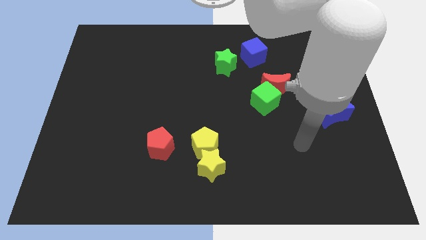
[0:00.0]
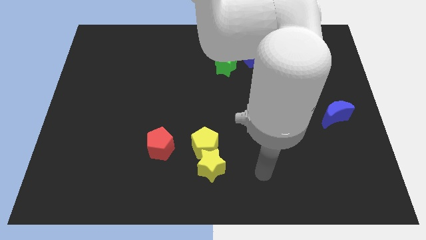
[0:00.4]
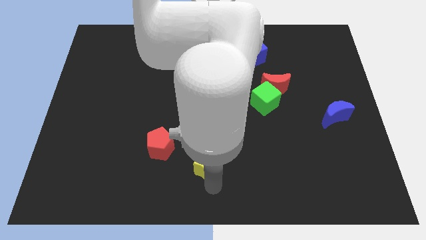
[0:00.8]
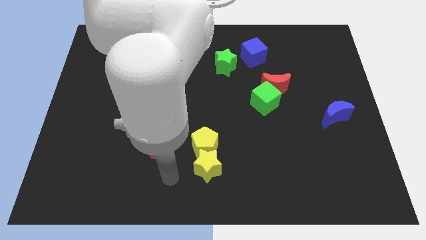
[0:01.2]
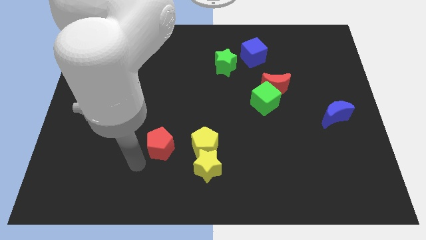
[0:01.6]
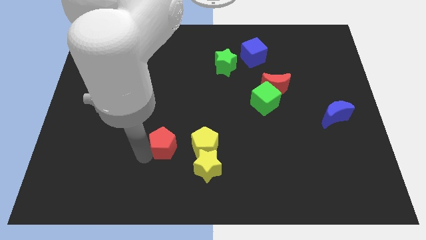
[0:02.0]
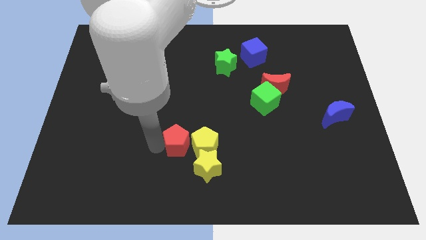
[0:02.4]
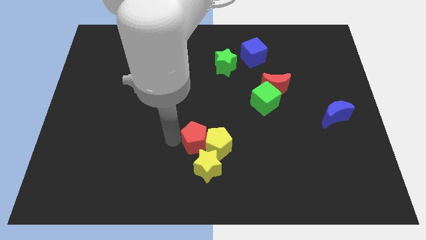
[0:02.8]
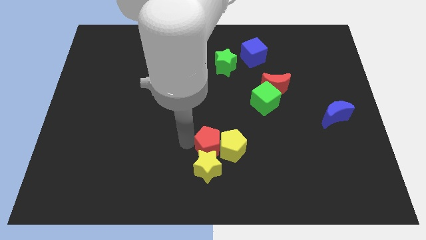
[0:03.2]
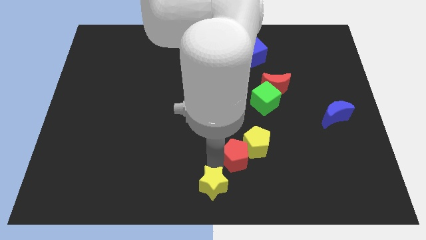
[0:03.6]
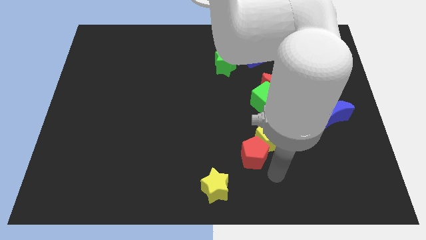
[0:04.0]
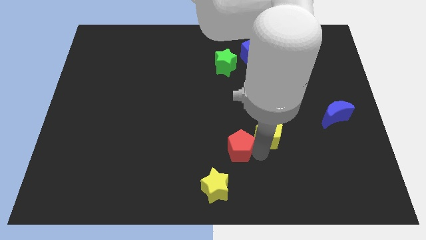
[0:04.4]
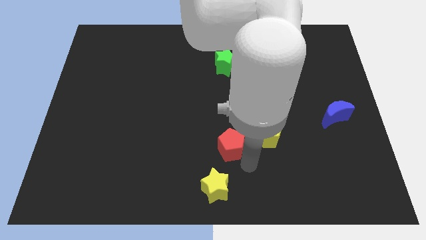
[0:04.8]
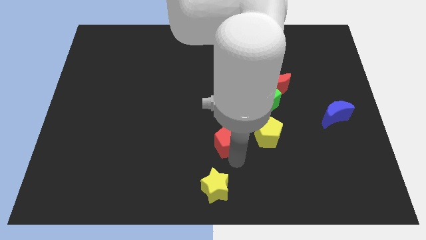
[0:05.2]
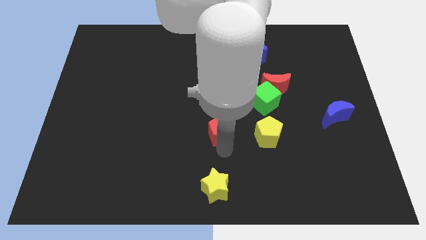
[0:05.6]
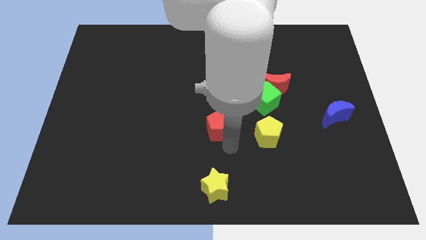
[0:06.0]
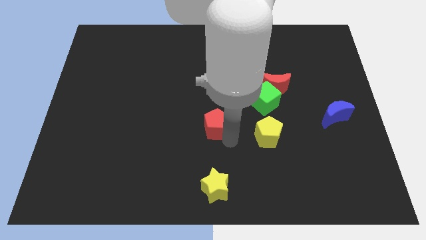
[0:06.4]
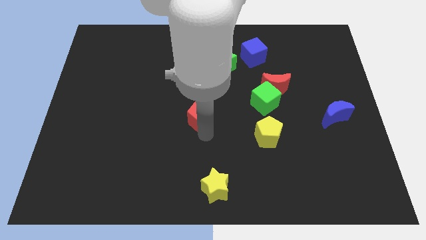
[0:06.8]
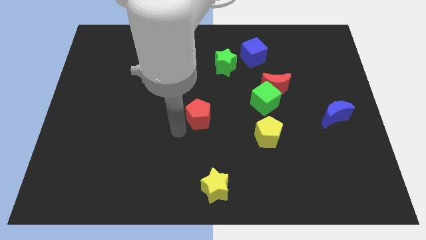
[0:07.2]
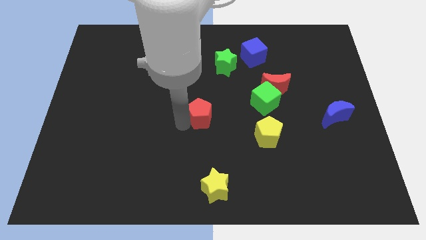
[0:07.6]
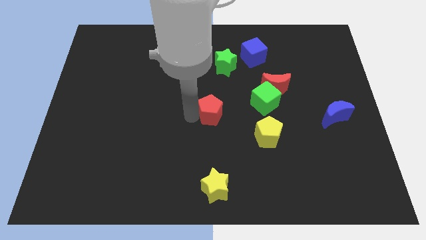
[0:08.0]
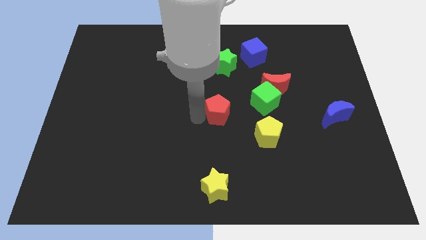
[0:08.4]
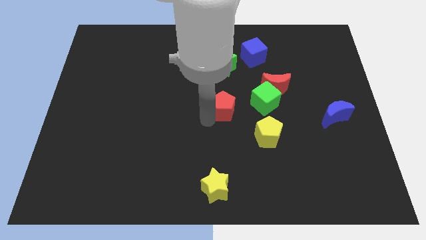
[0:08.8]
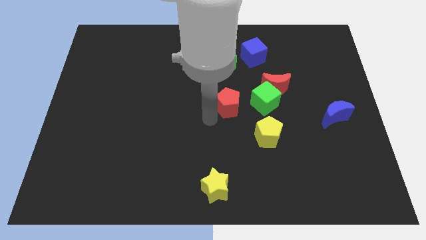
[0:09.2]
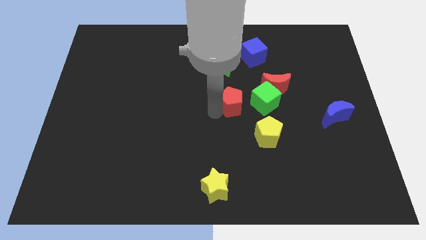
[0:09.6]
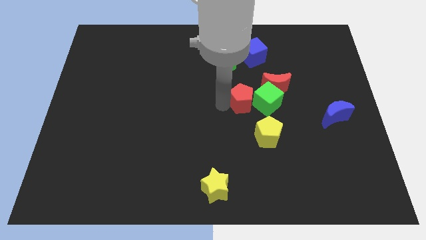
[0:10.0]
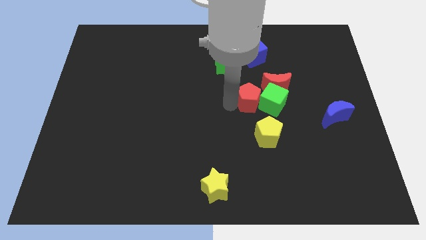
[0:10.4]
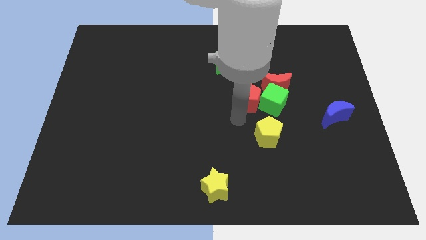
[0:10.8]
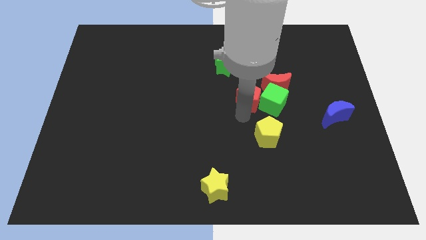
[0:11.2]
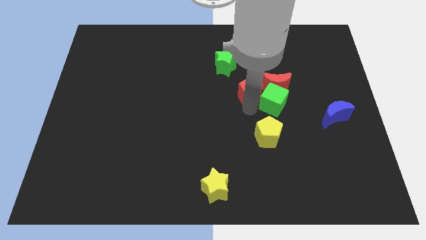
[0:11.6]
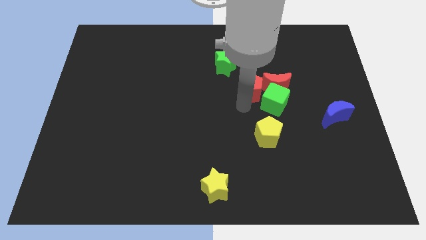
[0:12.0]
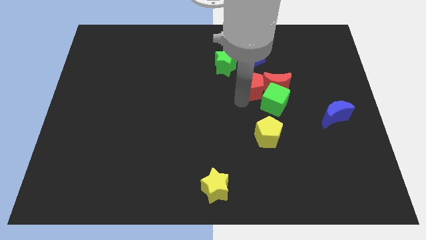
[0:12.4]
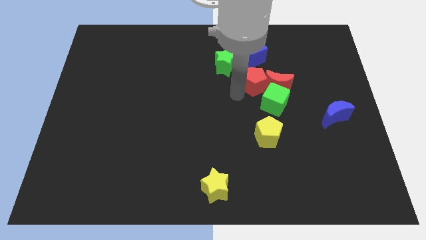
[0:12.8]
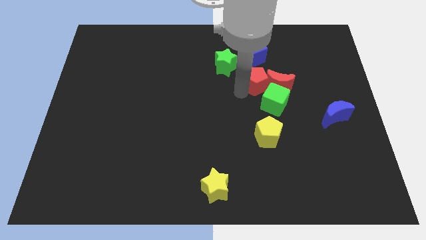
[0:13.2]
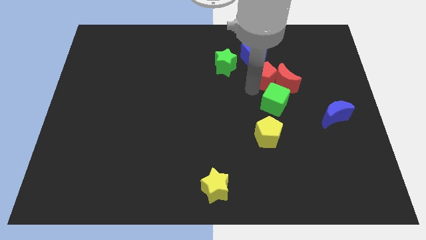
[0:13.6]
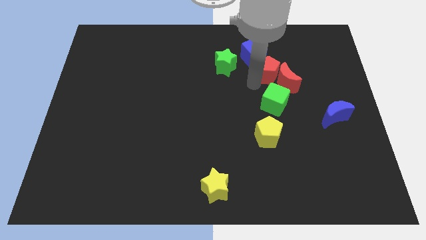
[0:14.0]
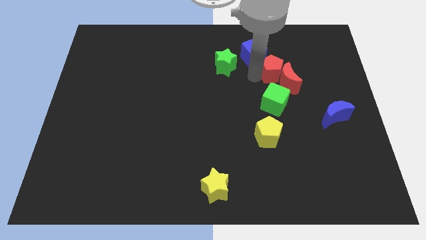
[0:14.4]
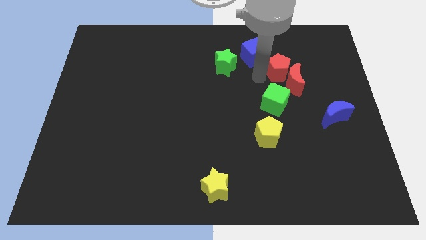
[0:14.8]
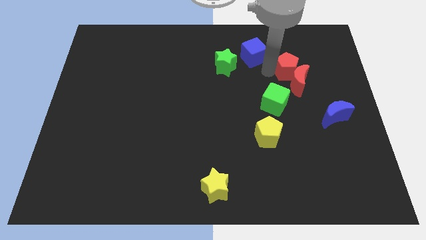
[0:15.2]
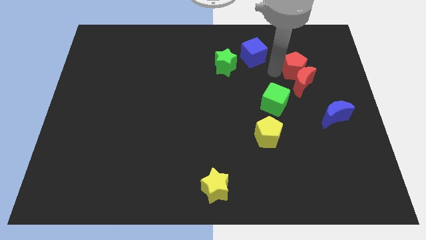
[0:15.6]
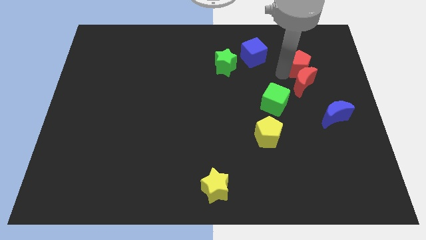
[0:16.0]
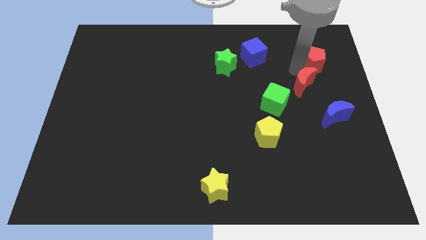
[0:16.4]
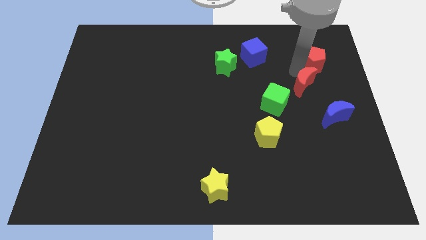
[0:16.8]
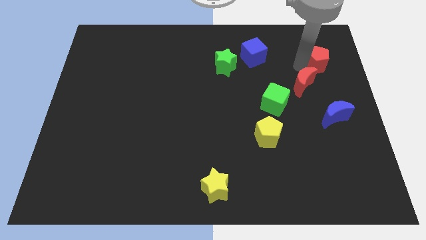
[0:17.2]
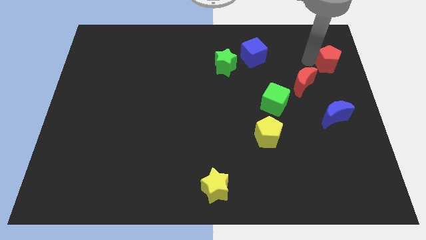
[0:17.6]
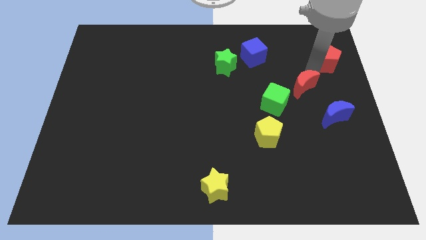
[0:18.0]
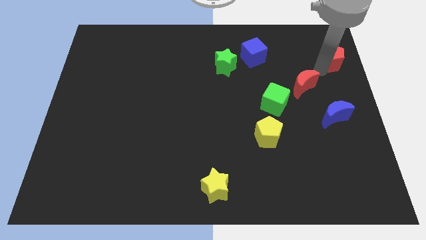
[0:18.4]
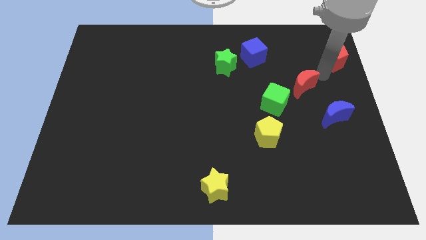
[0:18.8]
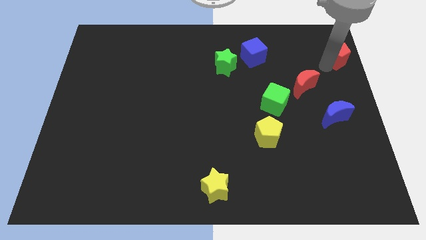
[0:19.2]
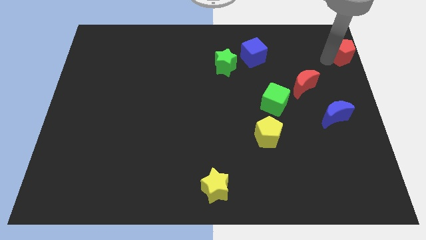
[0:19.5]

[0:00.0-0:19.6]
push the red pentagon to the upper right corner

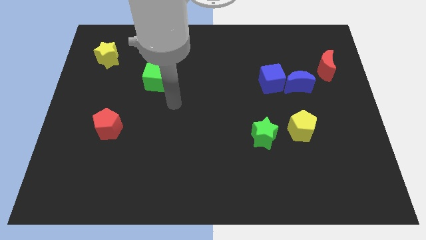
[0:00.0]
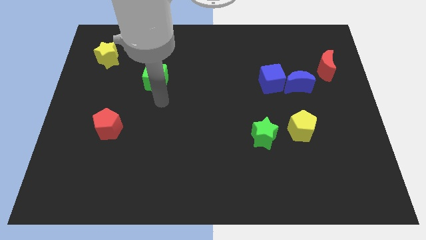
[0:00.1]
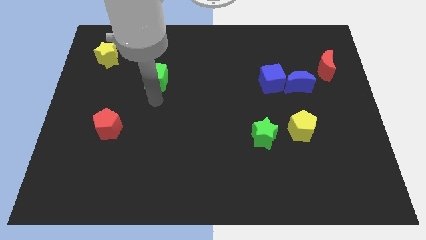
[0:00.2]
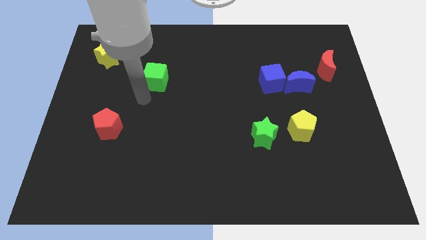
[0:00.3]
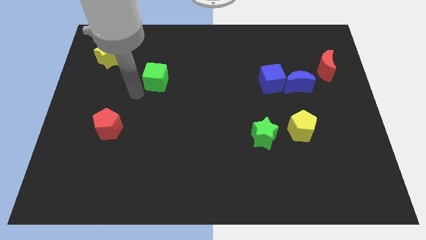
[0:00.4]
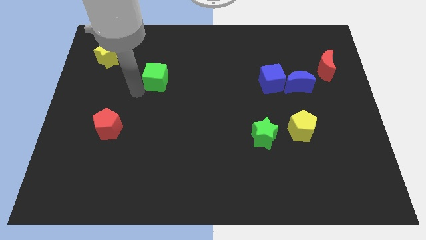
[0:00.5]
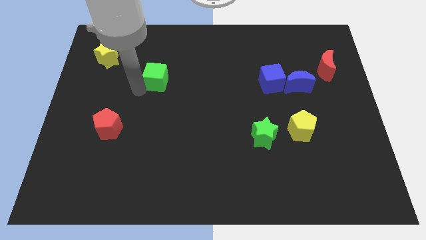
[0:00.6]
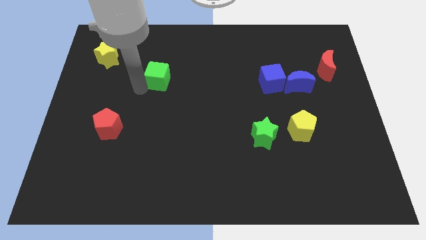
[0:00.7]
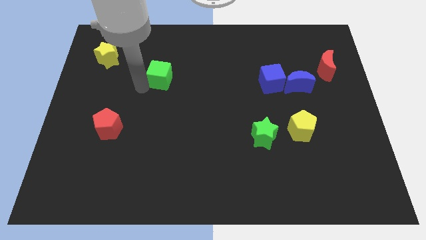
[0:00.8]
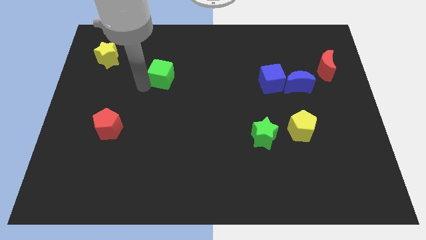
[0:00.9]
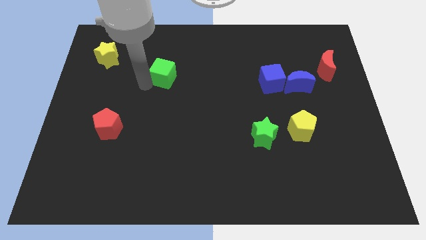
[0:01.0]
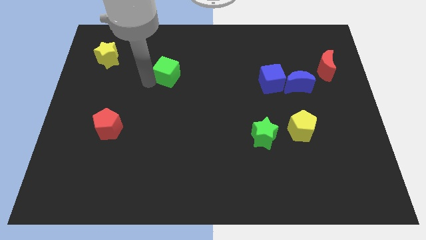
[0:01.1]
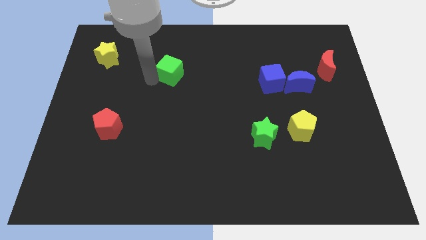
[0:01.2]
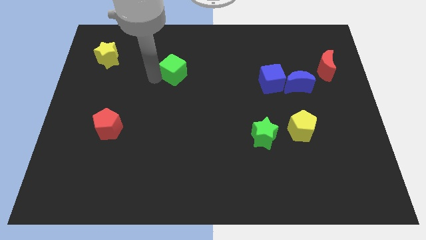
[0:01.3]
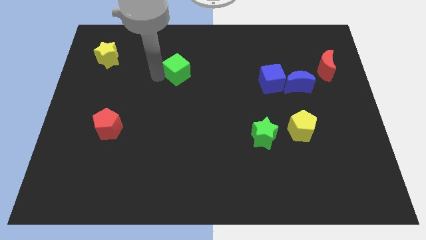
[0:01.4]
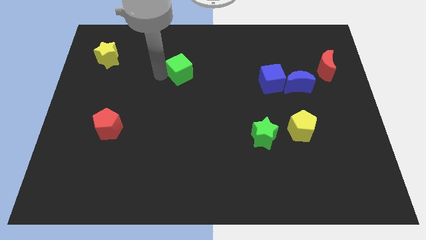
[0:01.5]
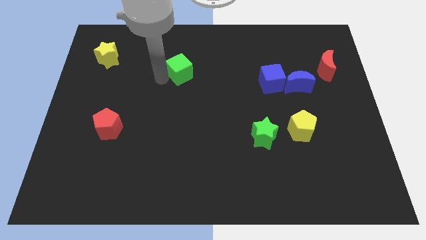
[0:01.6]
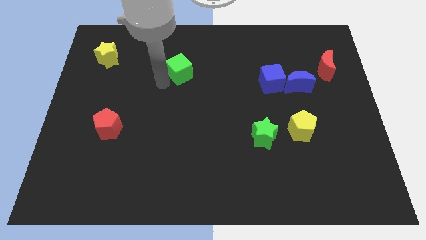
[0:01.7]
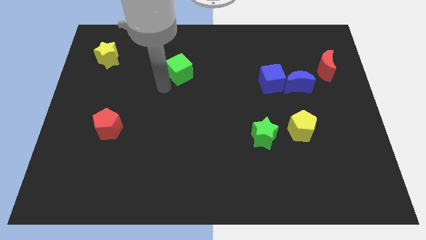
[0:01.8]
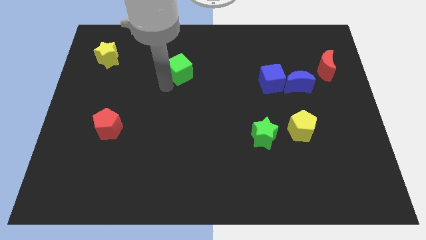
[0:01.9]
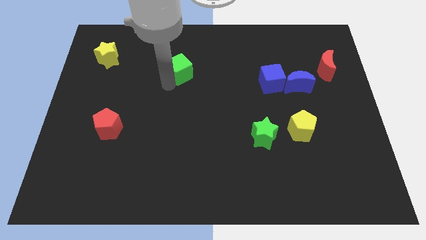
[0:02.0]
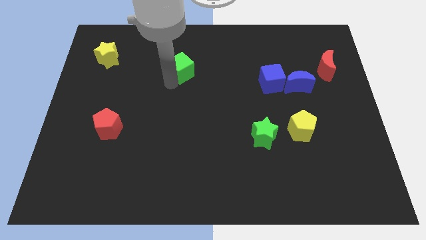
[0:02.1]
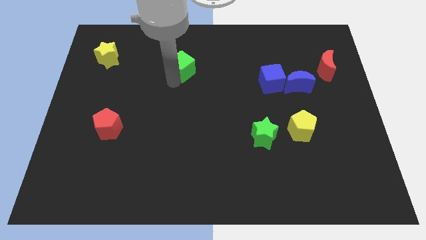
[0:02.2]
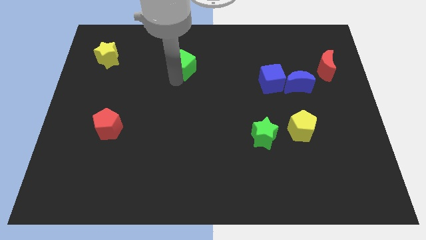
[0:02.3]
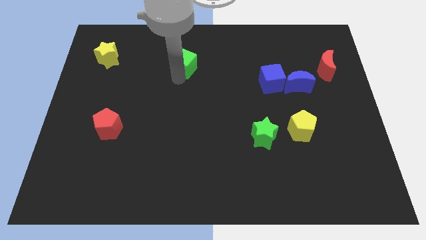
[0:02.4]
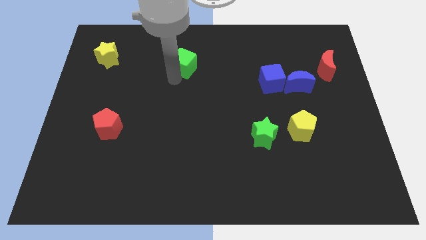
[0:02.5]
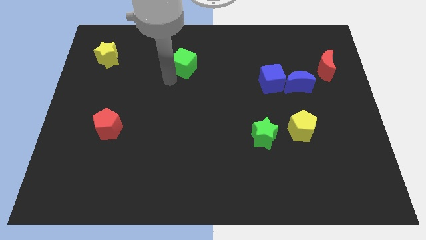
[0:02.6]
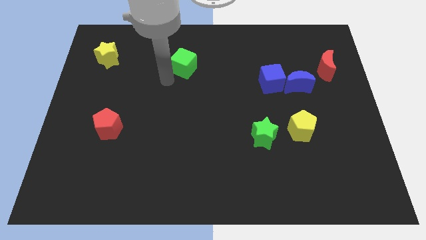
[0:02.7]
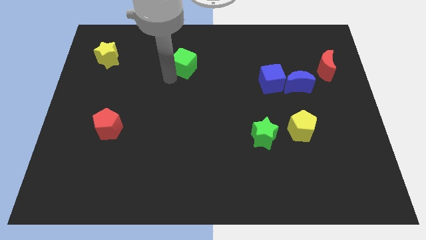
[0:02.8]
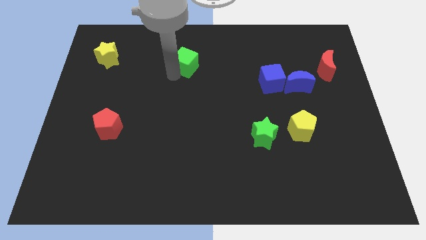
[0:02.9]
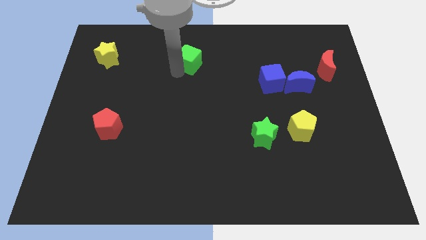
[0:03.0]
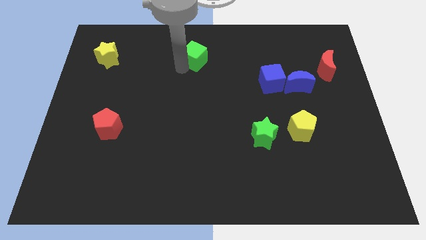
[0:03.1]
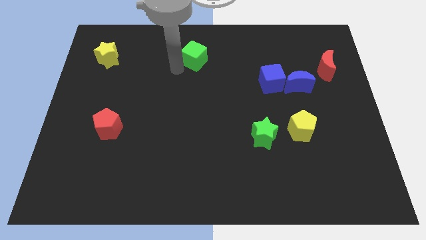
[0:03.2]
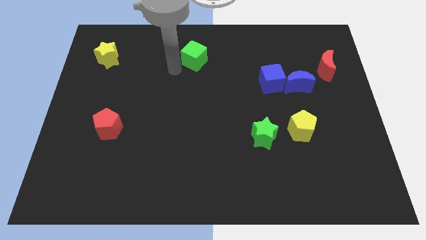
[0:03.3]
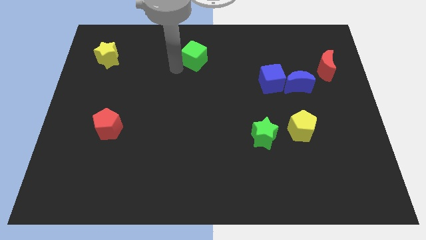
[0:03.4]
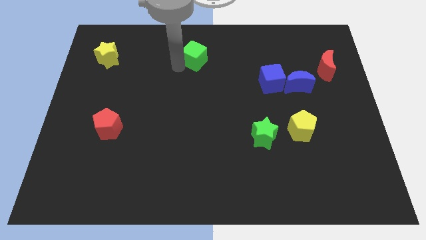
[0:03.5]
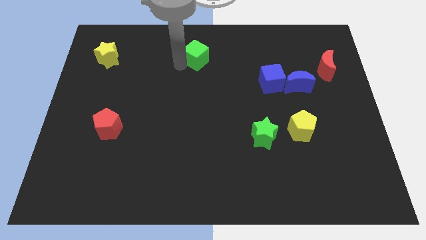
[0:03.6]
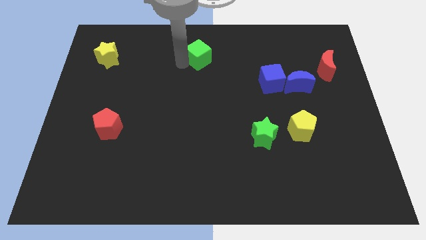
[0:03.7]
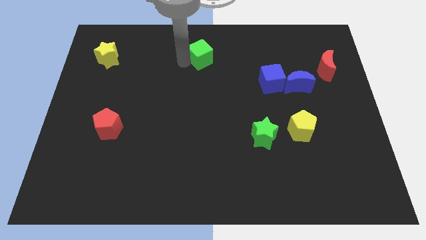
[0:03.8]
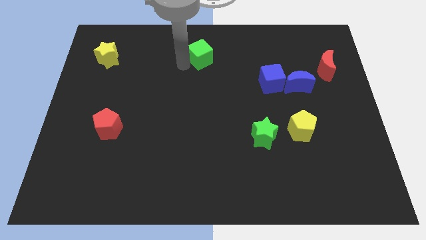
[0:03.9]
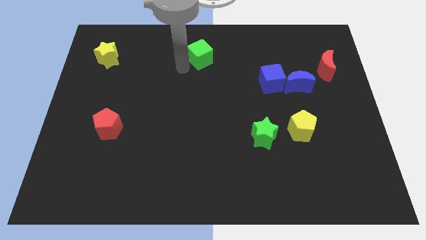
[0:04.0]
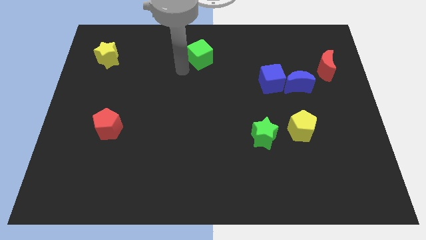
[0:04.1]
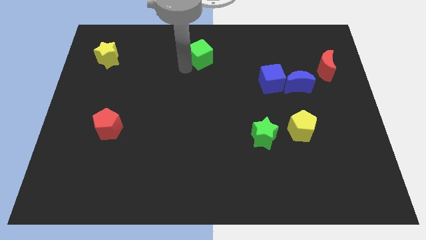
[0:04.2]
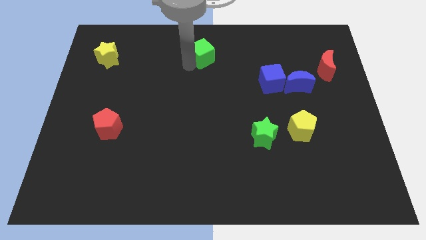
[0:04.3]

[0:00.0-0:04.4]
push the green cube to the top side
